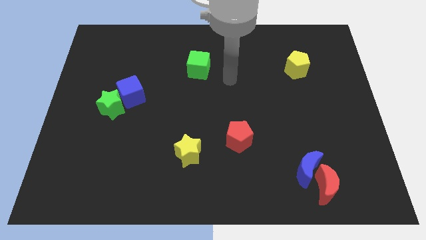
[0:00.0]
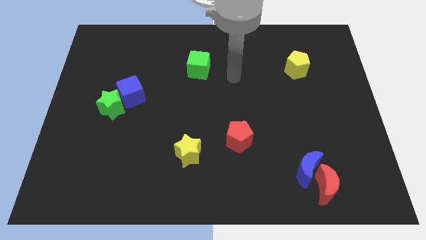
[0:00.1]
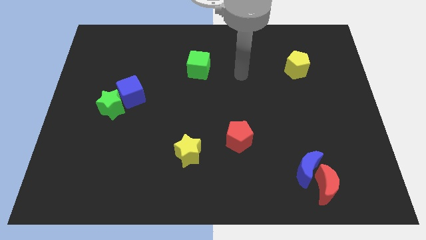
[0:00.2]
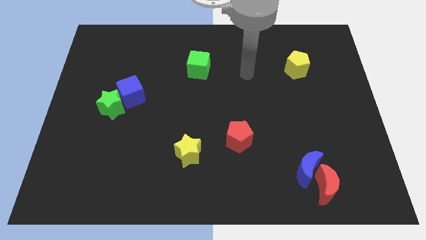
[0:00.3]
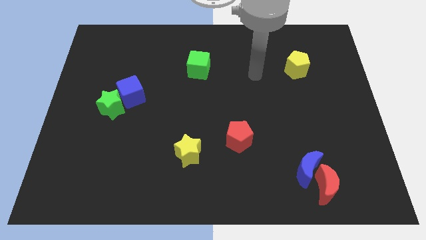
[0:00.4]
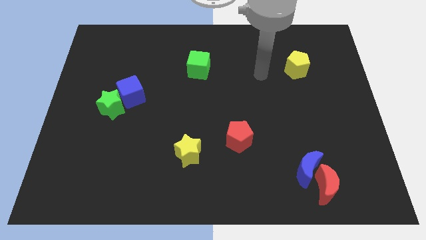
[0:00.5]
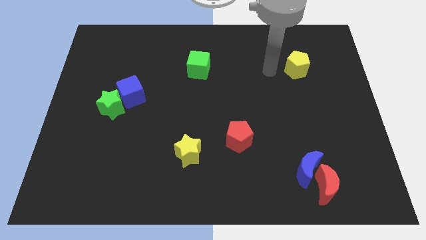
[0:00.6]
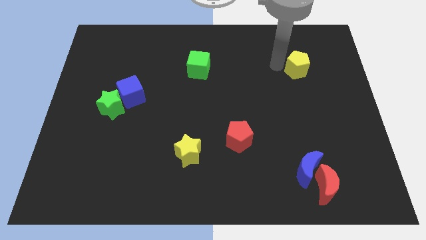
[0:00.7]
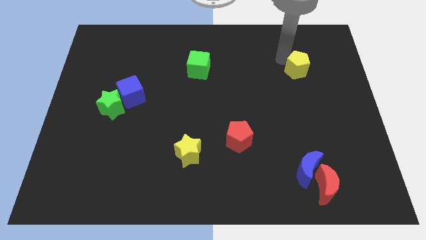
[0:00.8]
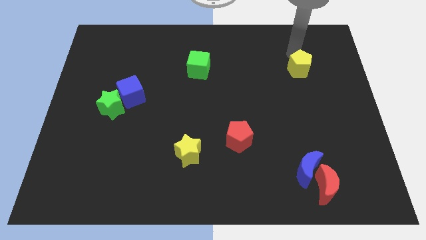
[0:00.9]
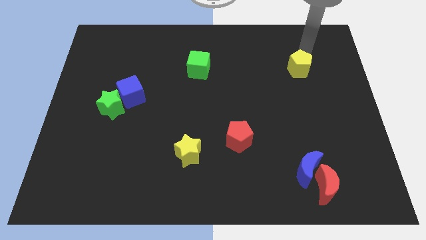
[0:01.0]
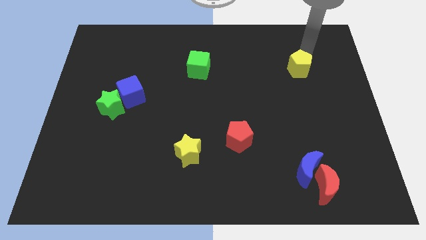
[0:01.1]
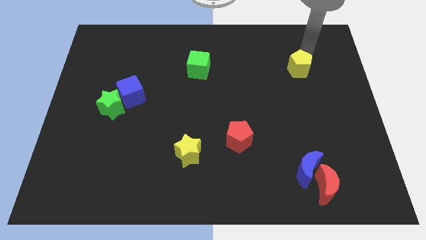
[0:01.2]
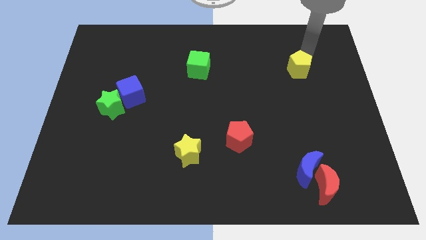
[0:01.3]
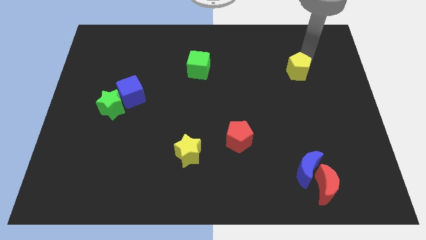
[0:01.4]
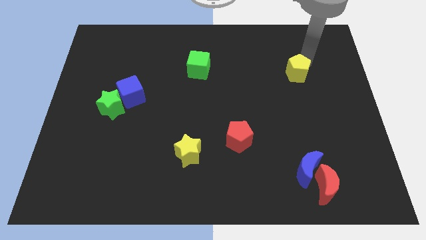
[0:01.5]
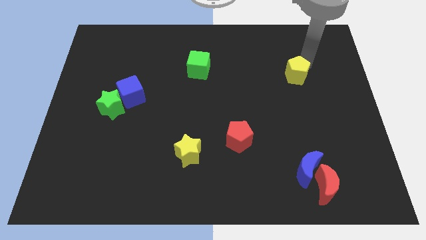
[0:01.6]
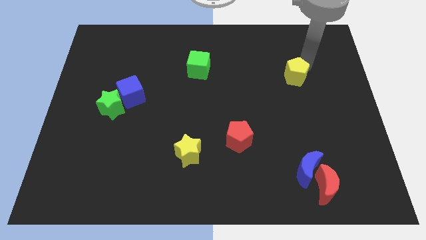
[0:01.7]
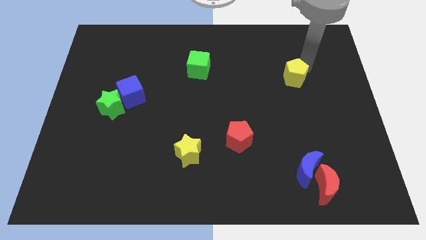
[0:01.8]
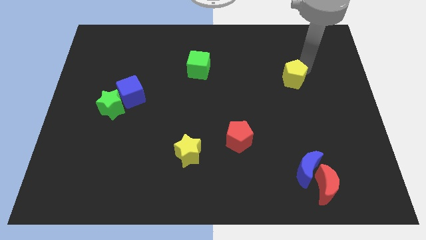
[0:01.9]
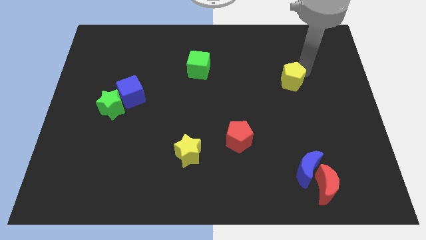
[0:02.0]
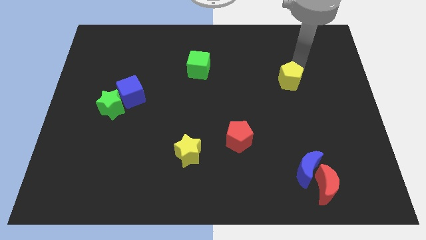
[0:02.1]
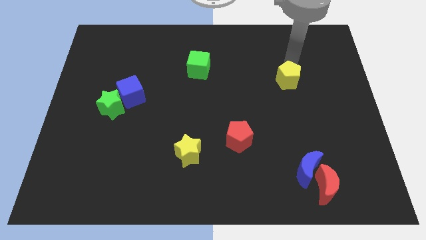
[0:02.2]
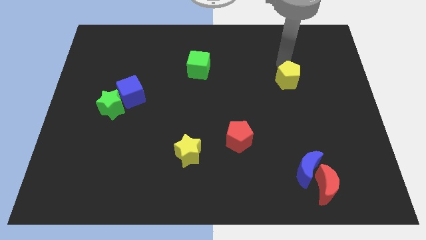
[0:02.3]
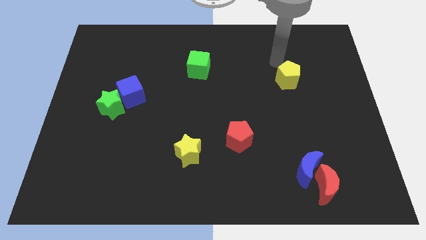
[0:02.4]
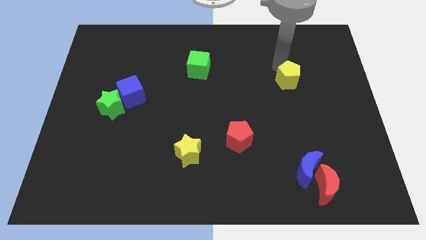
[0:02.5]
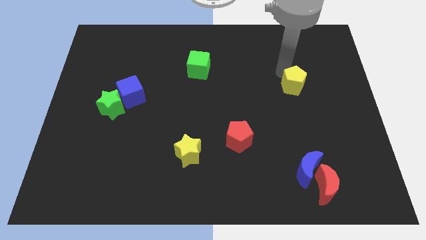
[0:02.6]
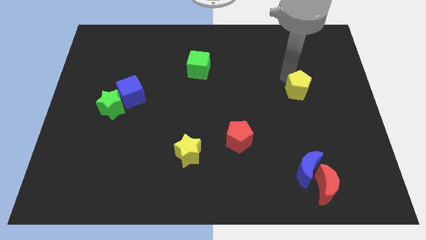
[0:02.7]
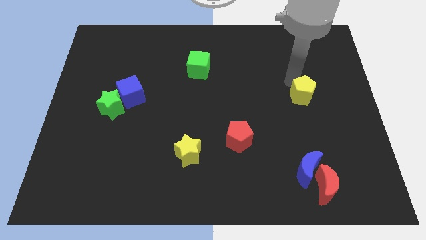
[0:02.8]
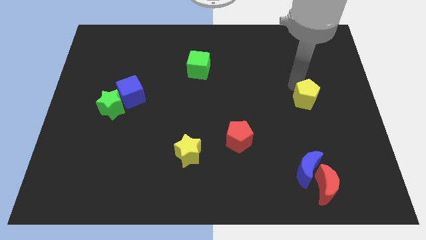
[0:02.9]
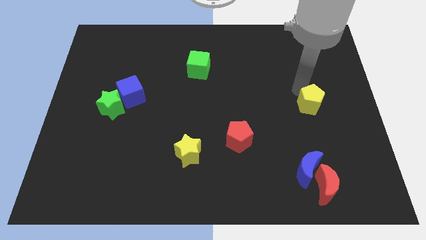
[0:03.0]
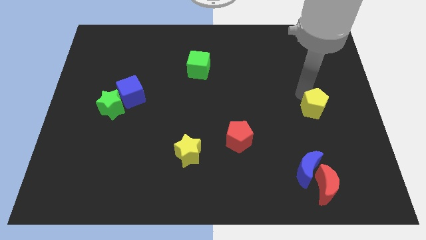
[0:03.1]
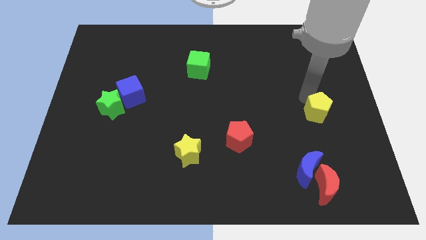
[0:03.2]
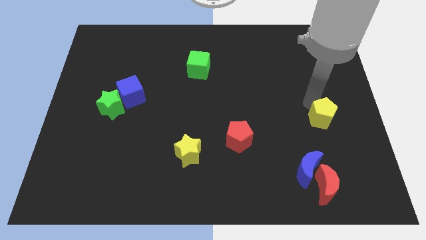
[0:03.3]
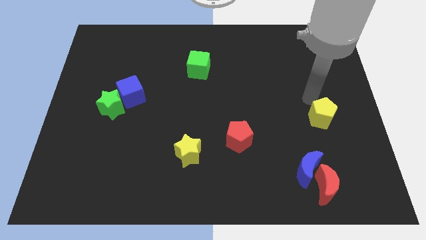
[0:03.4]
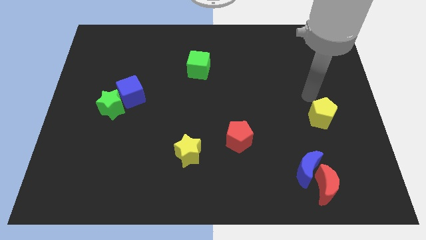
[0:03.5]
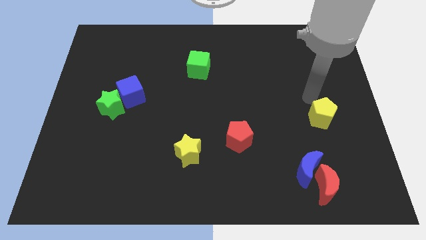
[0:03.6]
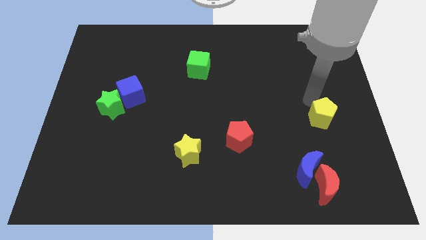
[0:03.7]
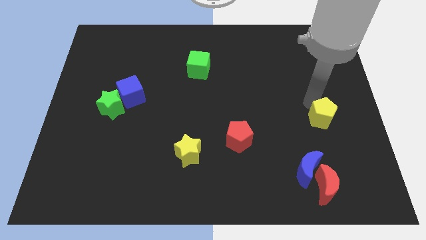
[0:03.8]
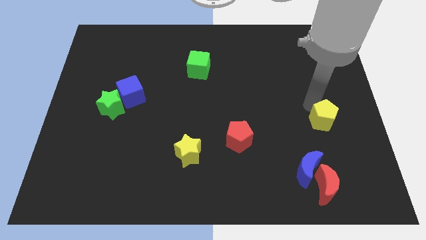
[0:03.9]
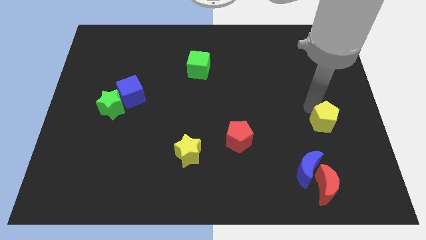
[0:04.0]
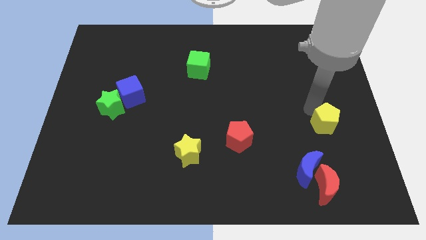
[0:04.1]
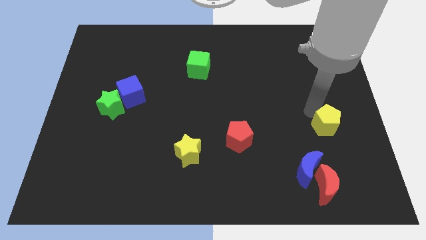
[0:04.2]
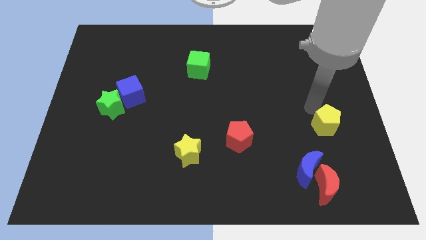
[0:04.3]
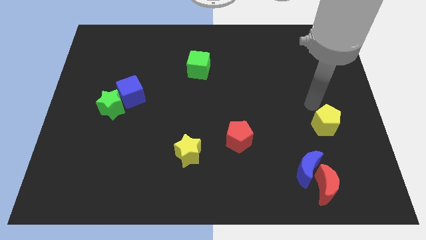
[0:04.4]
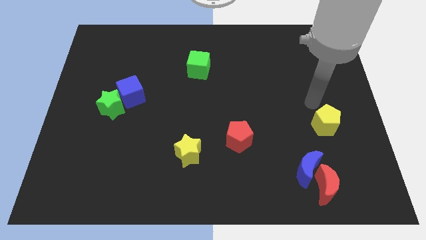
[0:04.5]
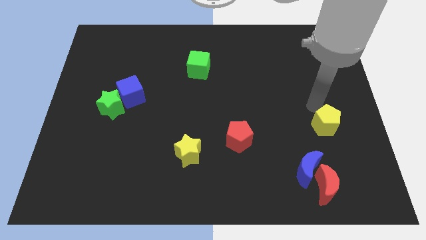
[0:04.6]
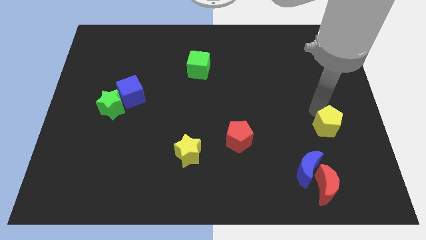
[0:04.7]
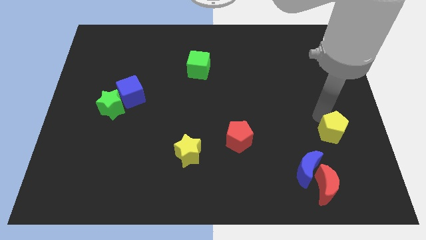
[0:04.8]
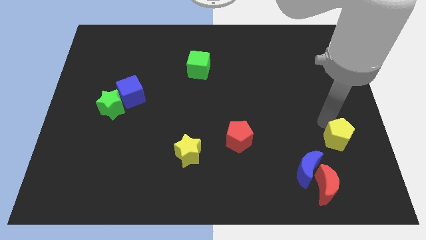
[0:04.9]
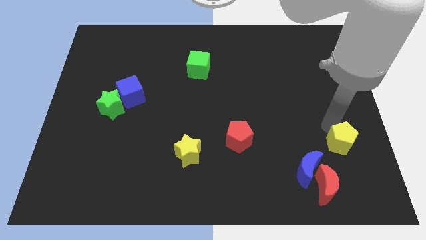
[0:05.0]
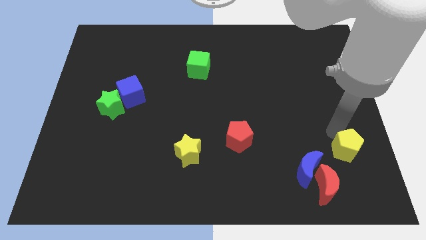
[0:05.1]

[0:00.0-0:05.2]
move the yellow pentagon diagonally up and to the right of the red moon

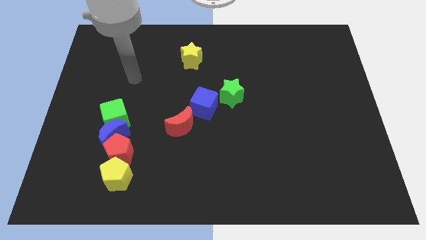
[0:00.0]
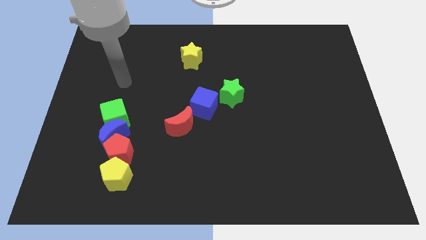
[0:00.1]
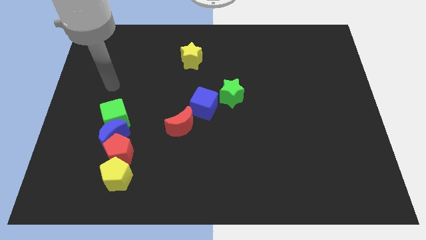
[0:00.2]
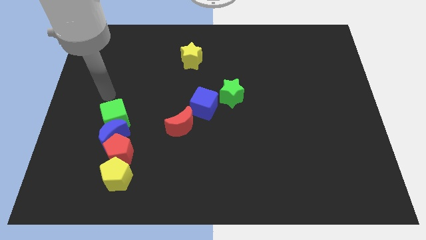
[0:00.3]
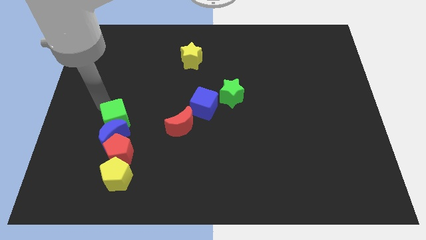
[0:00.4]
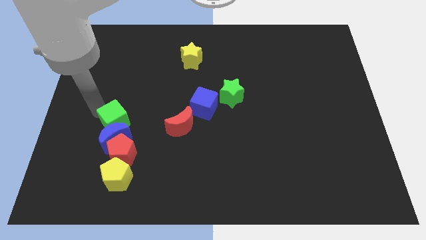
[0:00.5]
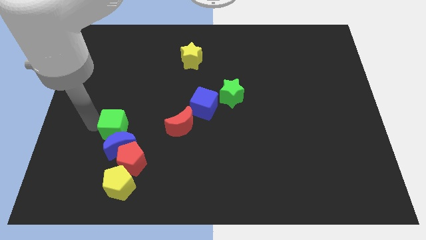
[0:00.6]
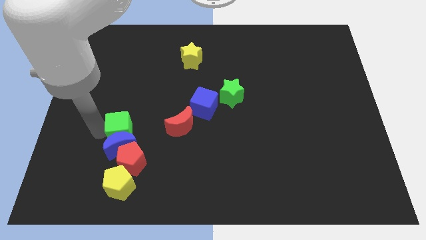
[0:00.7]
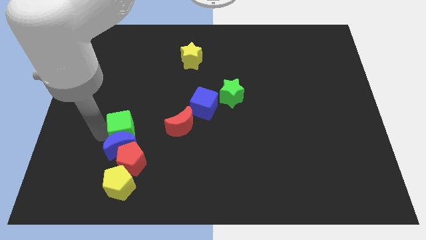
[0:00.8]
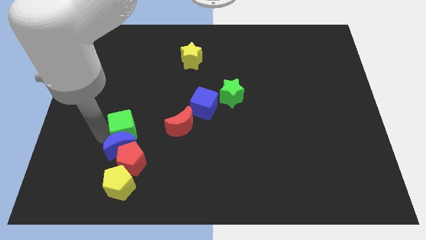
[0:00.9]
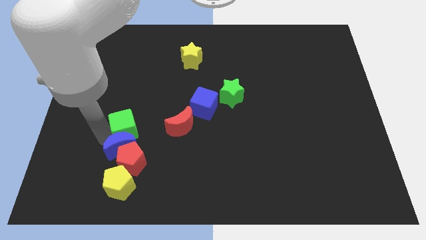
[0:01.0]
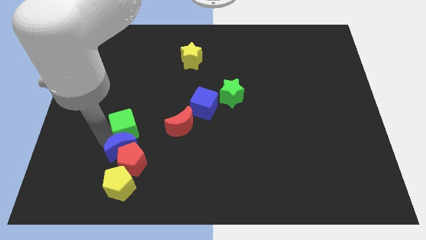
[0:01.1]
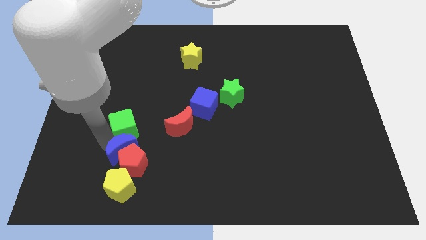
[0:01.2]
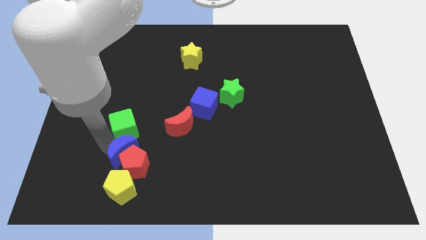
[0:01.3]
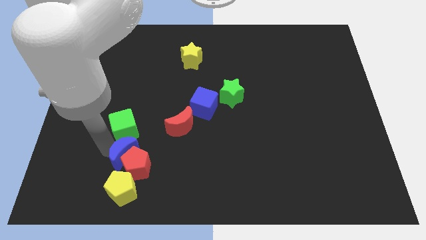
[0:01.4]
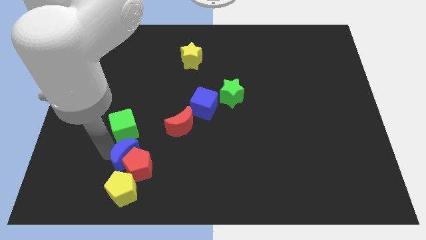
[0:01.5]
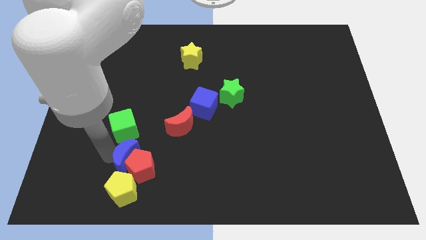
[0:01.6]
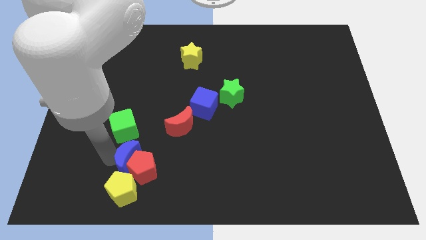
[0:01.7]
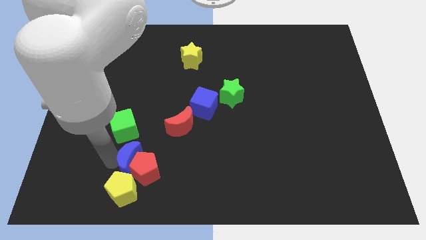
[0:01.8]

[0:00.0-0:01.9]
push the blue moon diagonally up and to the right of the yellow pentagon

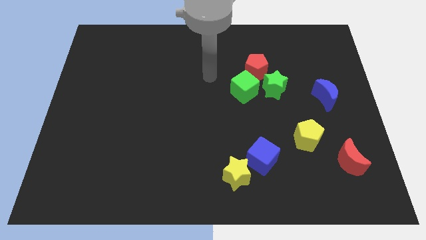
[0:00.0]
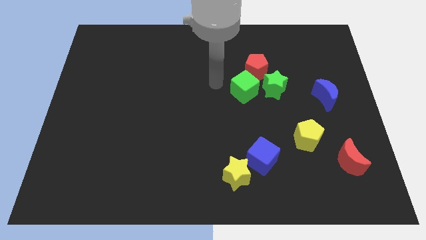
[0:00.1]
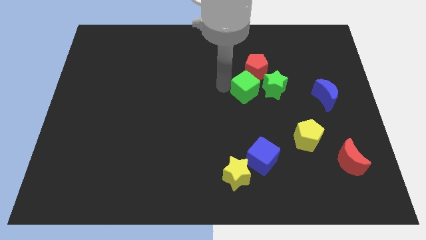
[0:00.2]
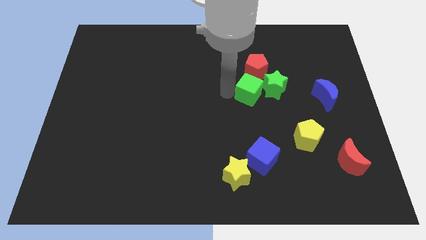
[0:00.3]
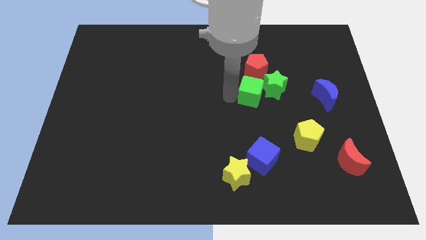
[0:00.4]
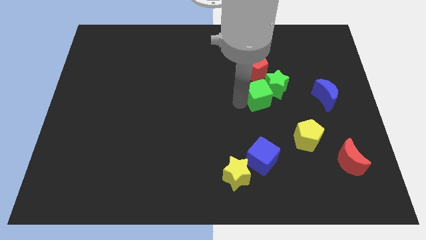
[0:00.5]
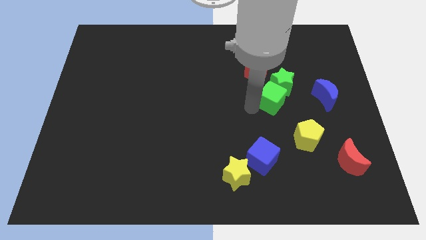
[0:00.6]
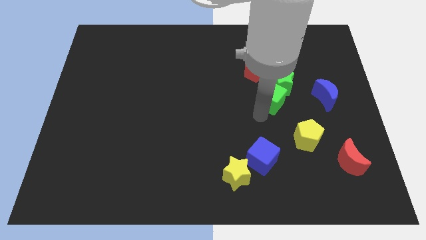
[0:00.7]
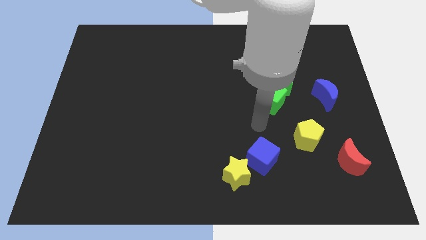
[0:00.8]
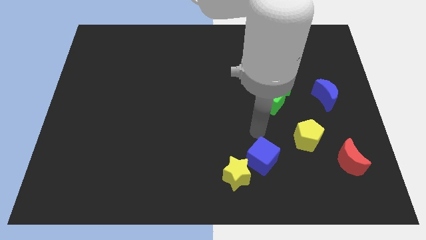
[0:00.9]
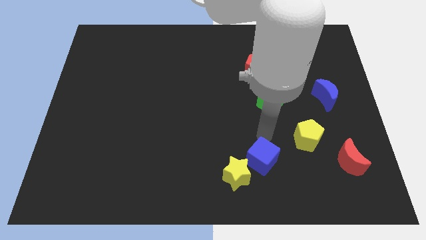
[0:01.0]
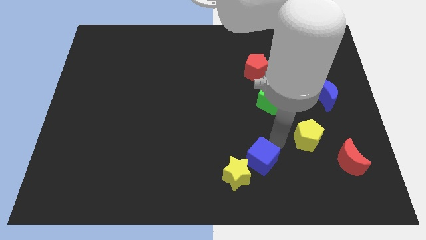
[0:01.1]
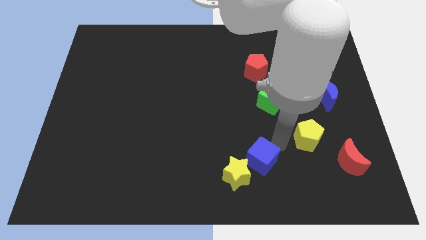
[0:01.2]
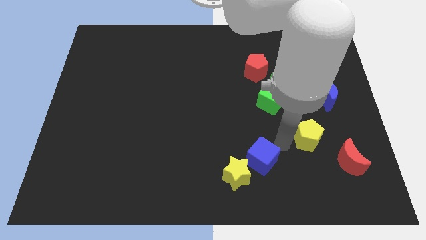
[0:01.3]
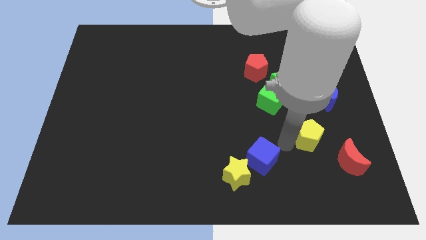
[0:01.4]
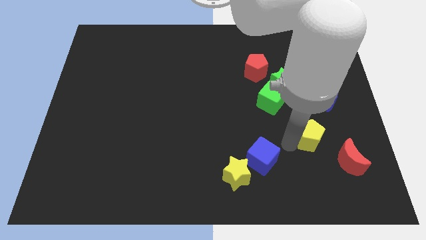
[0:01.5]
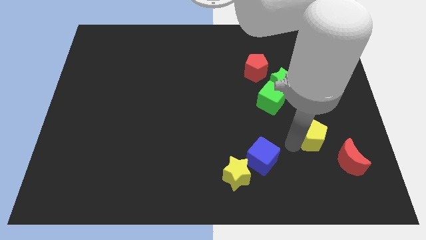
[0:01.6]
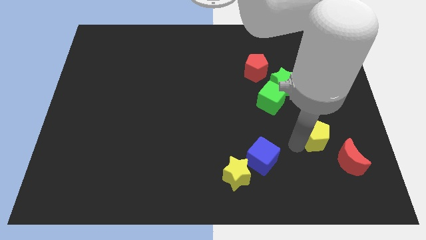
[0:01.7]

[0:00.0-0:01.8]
push the yellow pentagon below the blue moon
